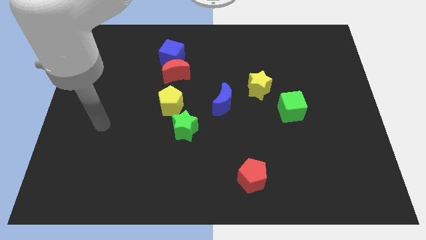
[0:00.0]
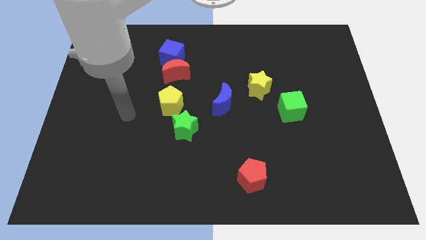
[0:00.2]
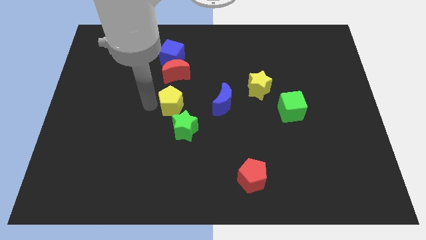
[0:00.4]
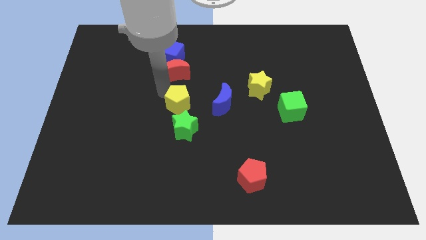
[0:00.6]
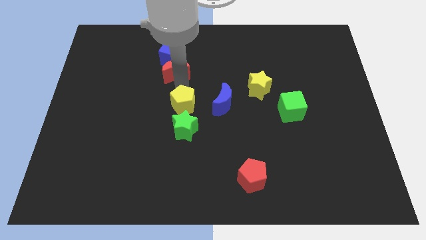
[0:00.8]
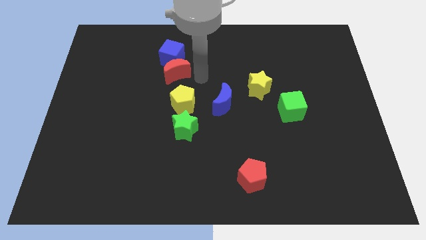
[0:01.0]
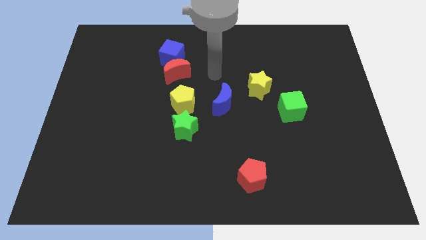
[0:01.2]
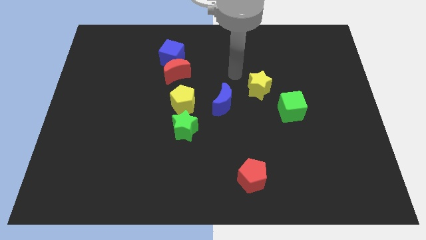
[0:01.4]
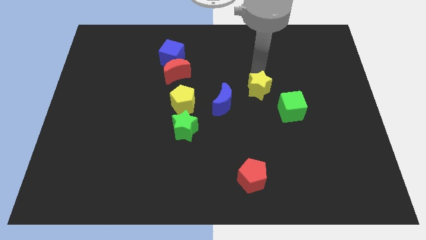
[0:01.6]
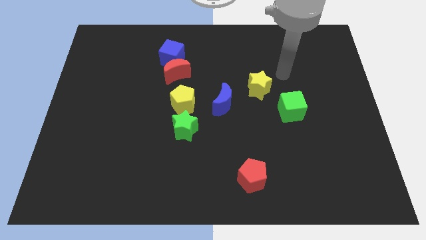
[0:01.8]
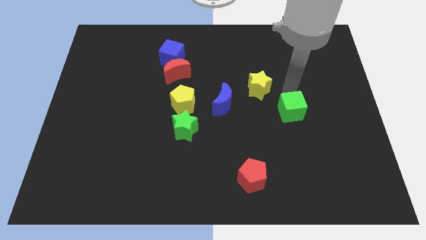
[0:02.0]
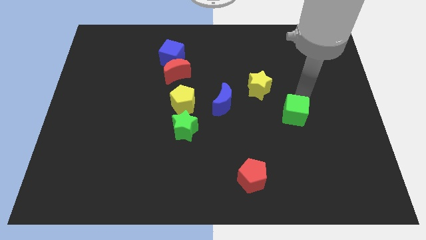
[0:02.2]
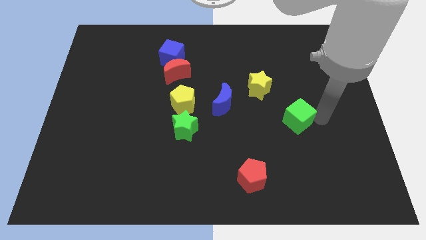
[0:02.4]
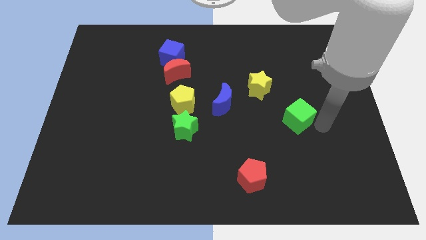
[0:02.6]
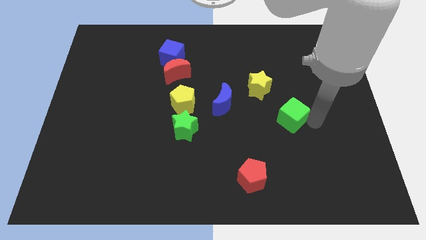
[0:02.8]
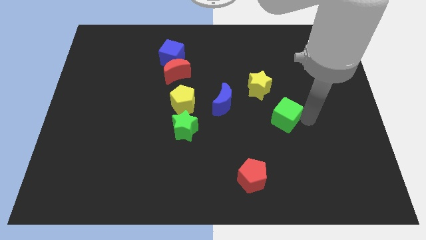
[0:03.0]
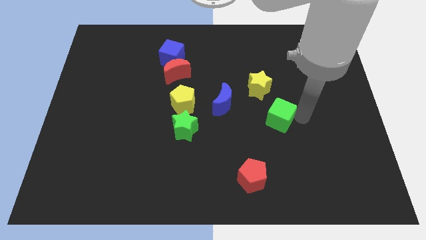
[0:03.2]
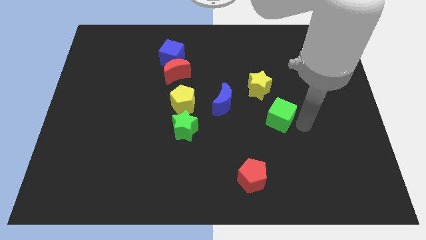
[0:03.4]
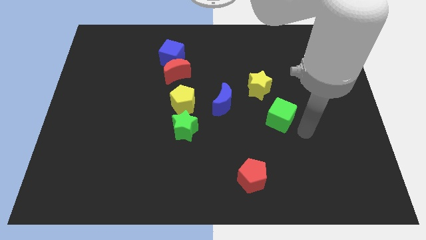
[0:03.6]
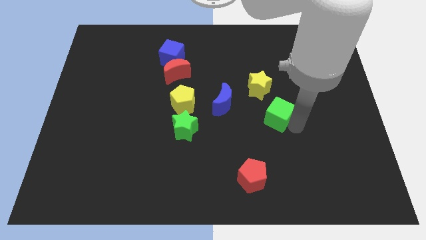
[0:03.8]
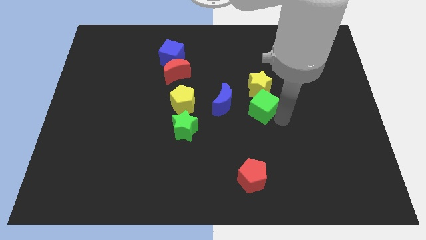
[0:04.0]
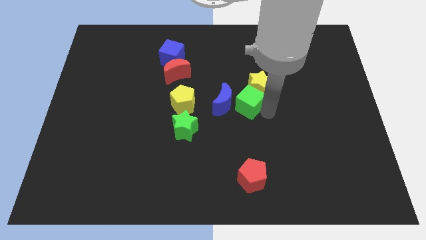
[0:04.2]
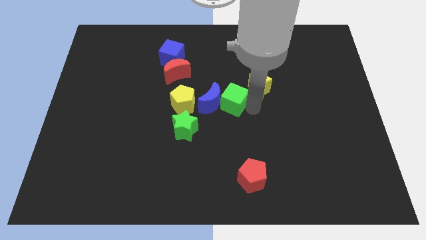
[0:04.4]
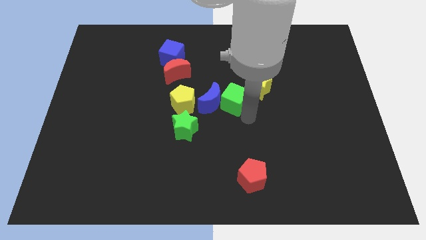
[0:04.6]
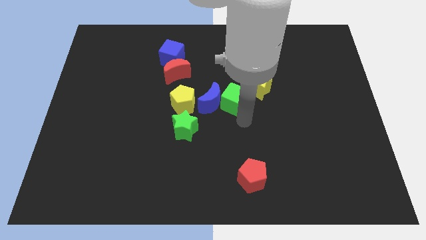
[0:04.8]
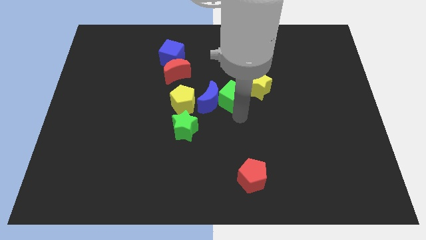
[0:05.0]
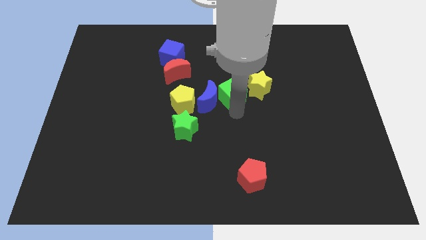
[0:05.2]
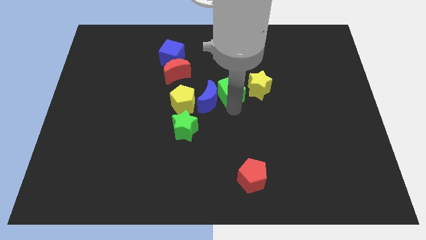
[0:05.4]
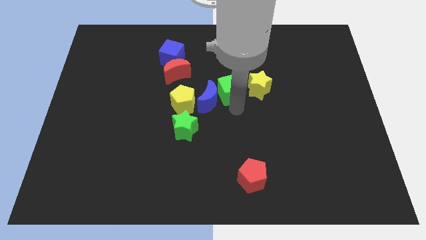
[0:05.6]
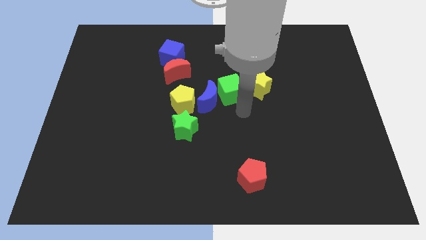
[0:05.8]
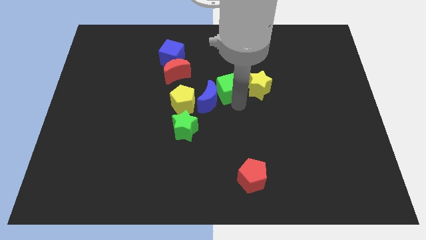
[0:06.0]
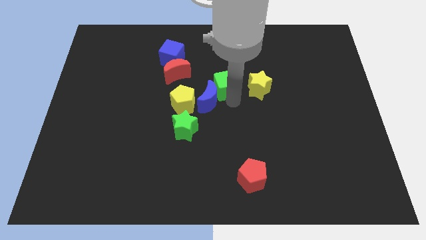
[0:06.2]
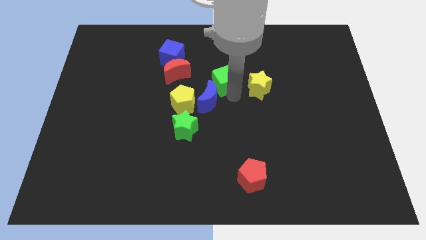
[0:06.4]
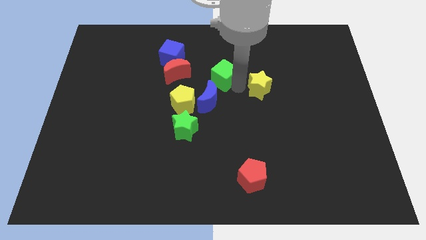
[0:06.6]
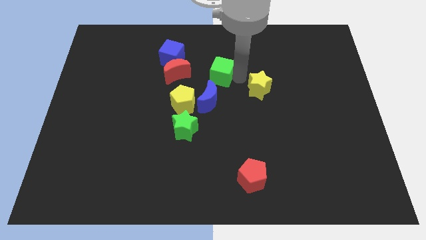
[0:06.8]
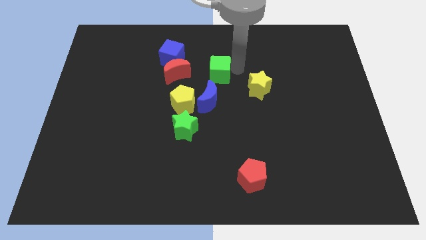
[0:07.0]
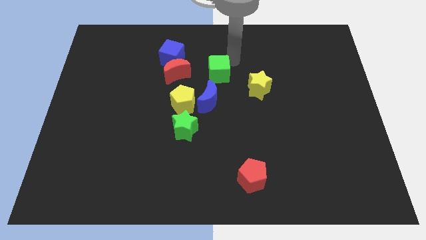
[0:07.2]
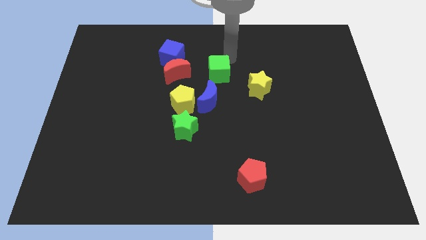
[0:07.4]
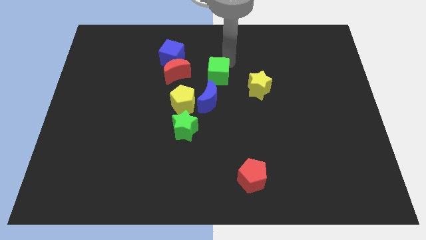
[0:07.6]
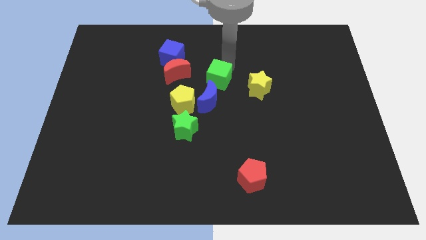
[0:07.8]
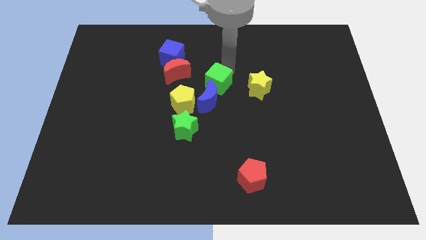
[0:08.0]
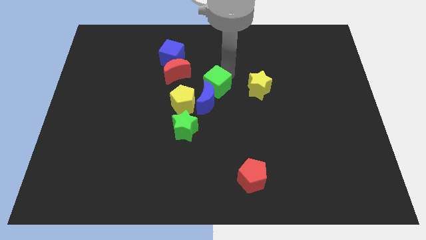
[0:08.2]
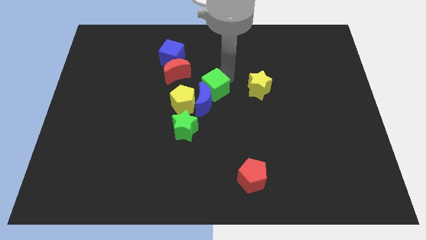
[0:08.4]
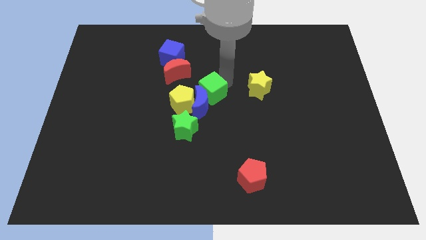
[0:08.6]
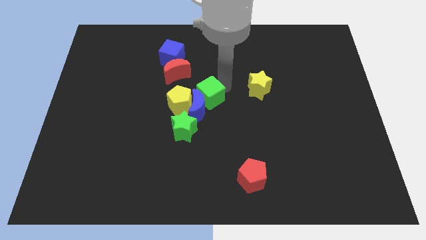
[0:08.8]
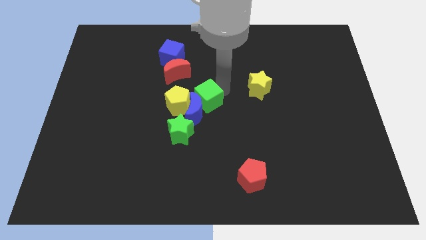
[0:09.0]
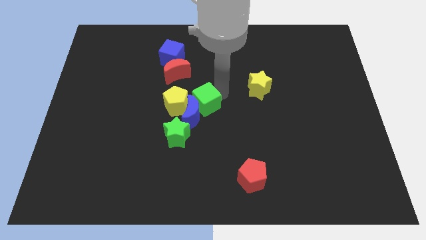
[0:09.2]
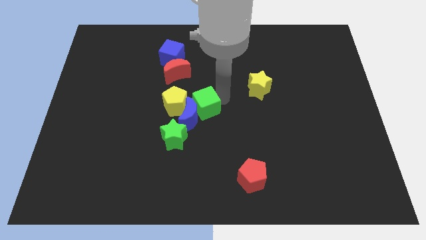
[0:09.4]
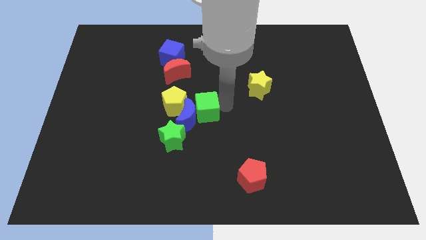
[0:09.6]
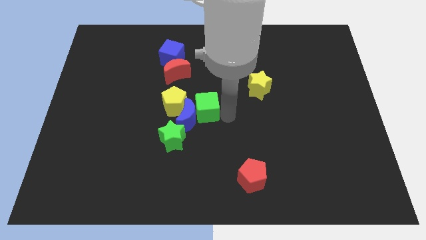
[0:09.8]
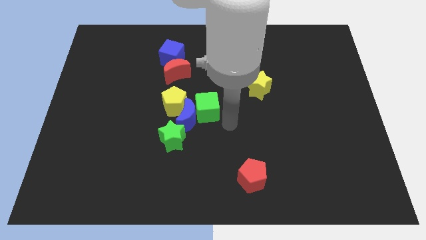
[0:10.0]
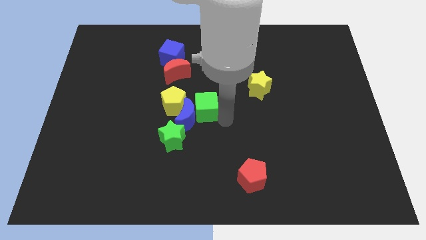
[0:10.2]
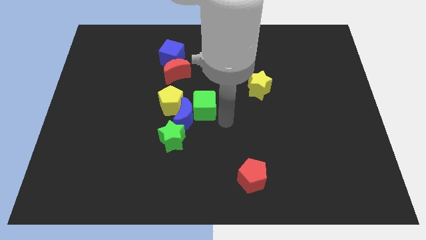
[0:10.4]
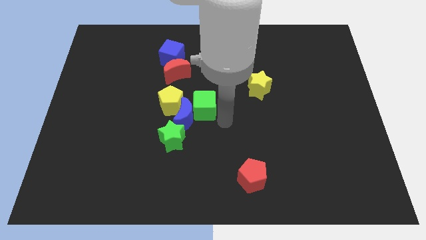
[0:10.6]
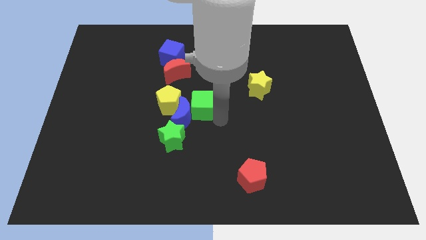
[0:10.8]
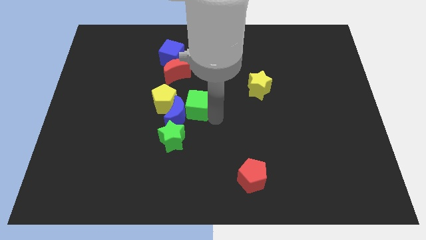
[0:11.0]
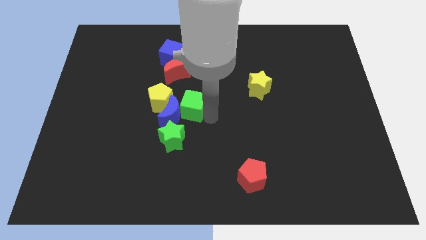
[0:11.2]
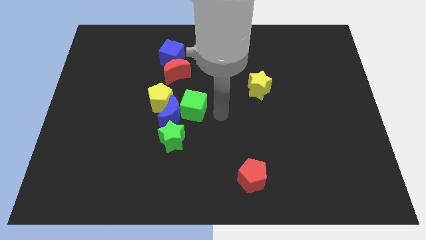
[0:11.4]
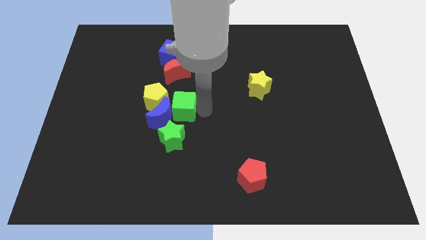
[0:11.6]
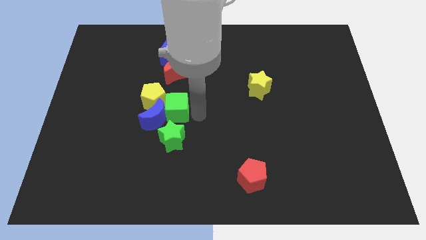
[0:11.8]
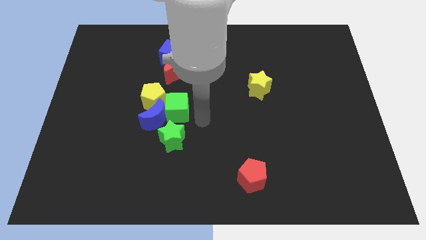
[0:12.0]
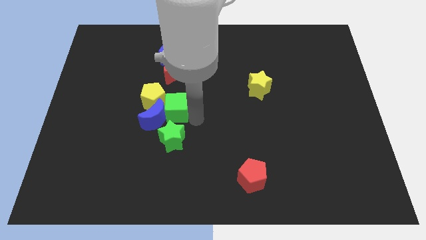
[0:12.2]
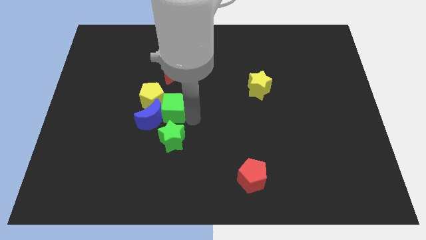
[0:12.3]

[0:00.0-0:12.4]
slide the green cube close to the yellow pentagon

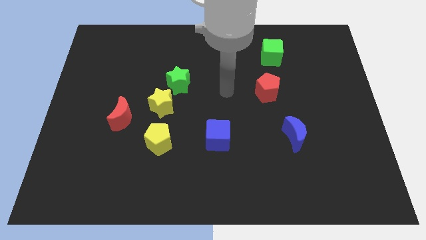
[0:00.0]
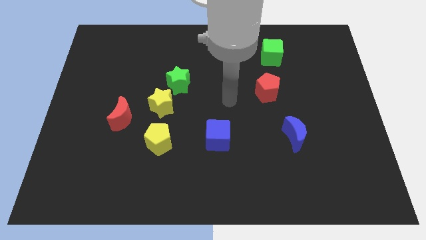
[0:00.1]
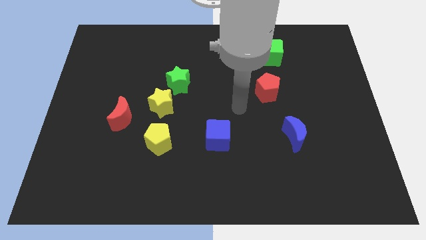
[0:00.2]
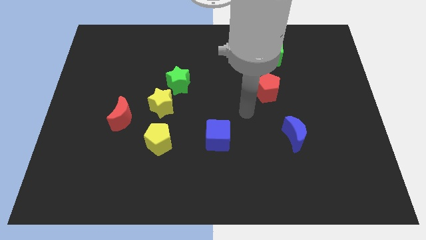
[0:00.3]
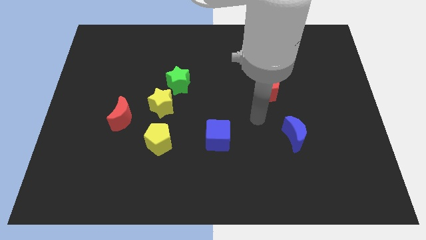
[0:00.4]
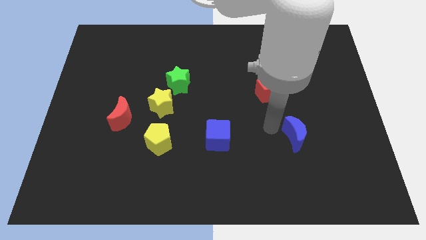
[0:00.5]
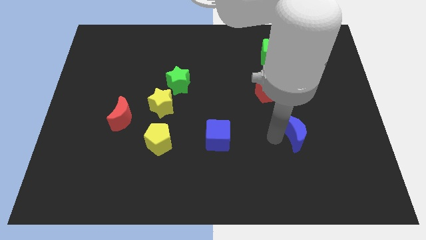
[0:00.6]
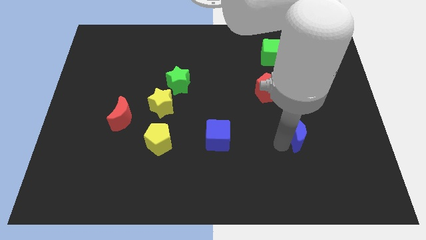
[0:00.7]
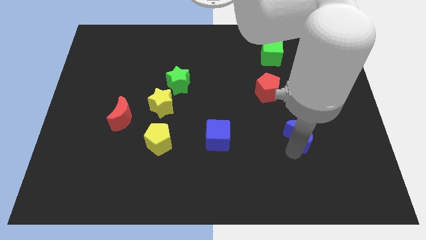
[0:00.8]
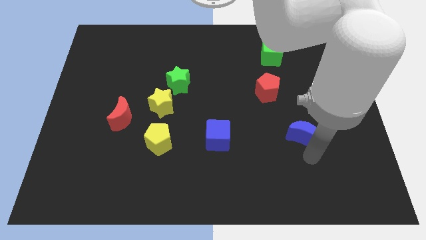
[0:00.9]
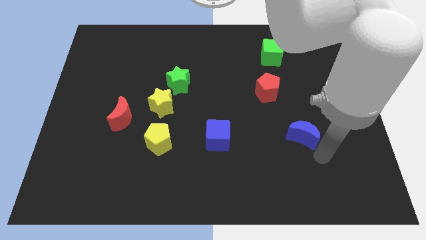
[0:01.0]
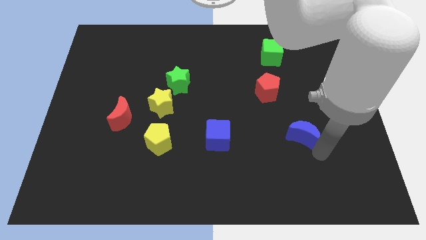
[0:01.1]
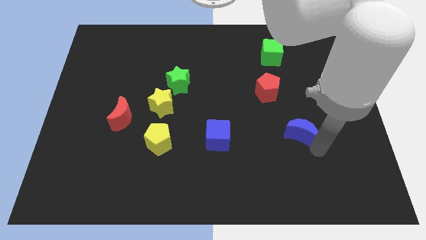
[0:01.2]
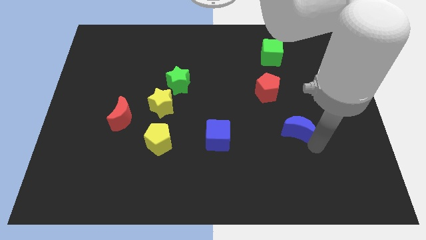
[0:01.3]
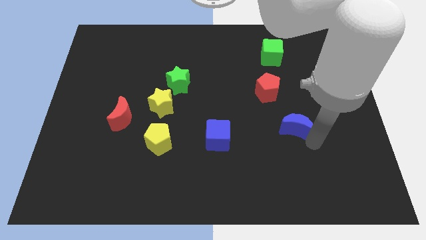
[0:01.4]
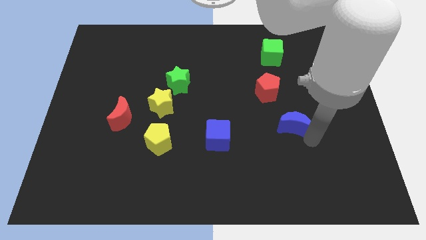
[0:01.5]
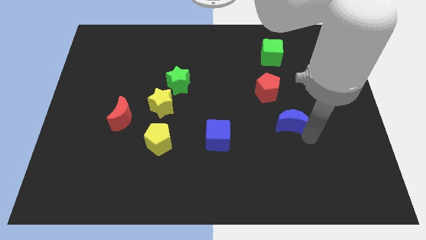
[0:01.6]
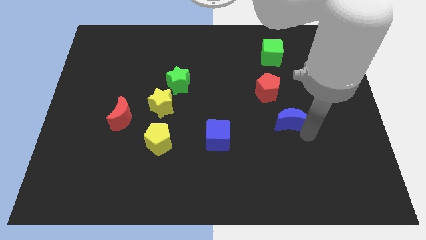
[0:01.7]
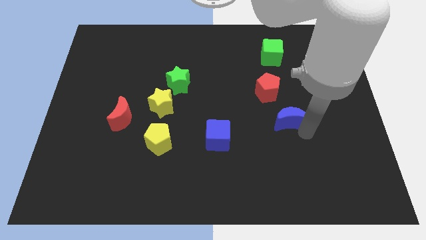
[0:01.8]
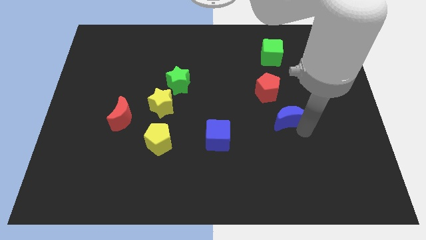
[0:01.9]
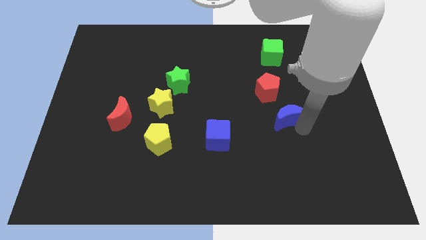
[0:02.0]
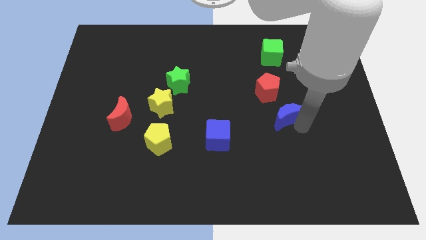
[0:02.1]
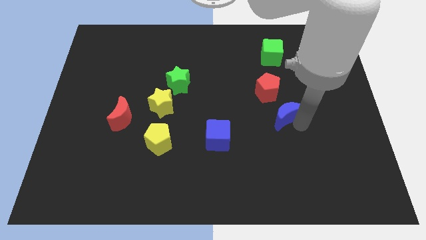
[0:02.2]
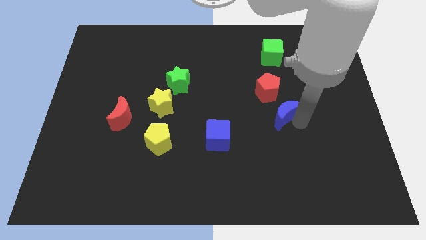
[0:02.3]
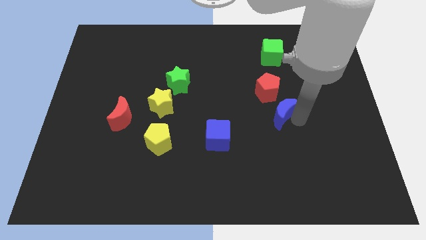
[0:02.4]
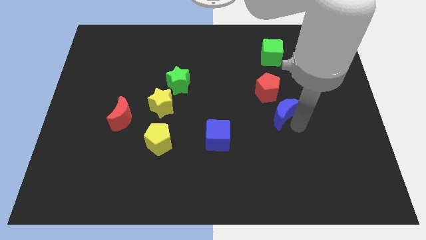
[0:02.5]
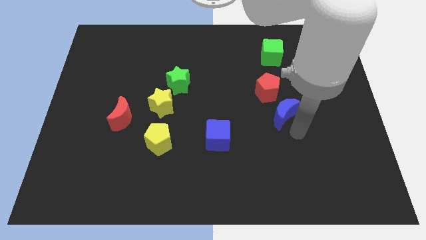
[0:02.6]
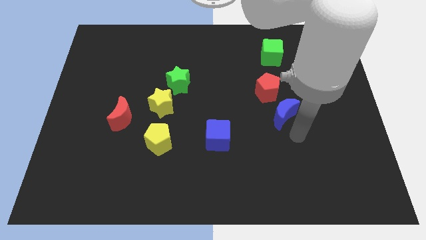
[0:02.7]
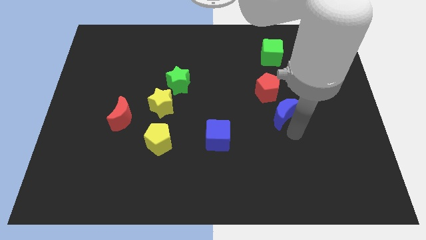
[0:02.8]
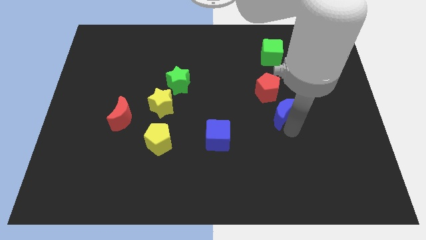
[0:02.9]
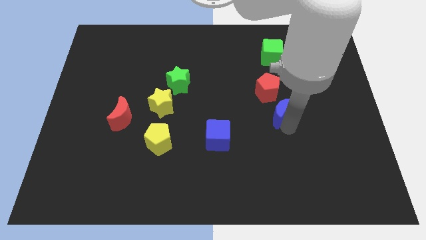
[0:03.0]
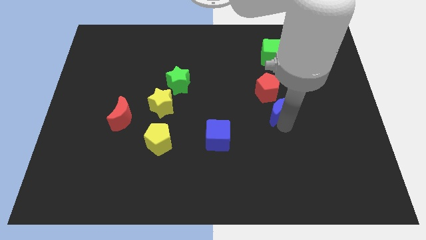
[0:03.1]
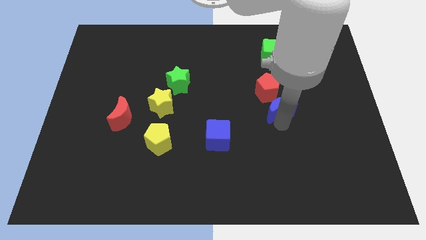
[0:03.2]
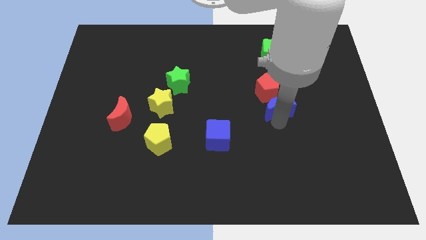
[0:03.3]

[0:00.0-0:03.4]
move the blue moon towards the red pentagon
